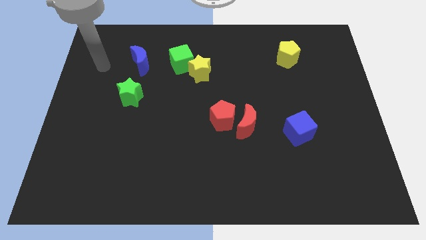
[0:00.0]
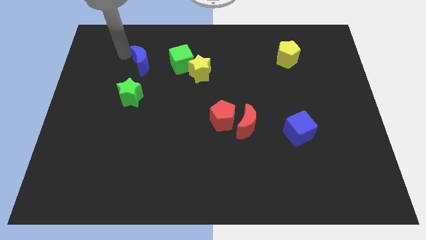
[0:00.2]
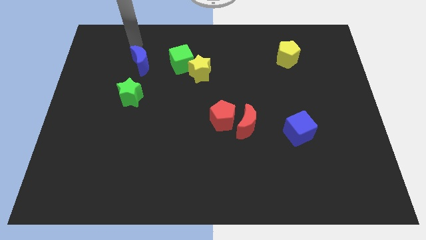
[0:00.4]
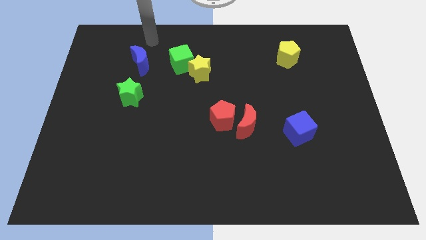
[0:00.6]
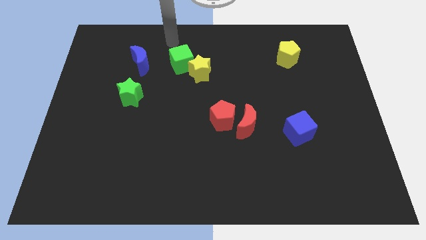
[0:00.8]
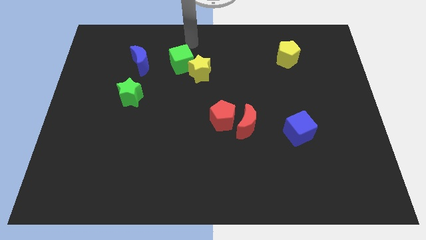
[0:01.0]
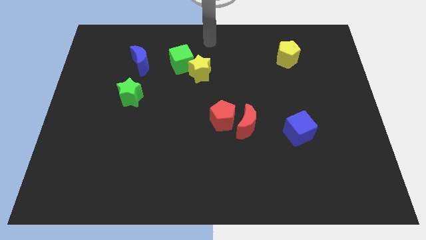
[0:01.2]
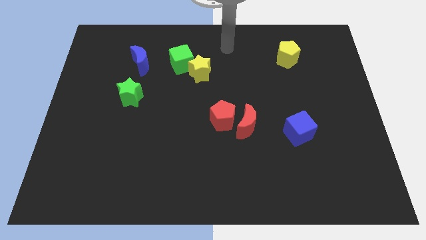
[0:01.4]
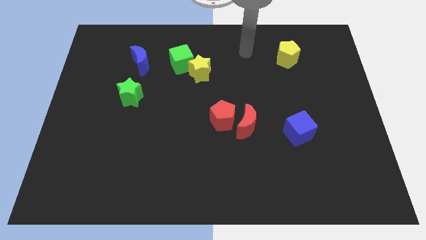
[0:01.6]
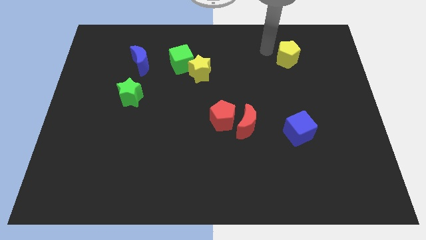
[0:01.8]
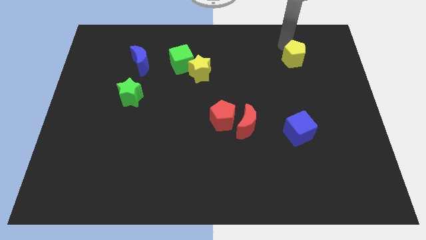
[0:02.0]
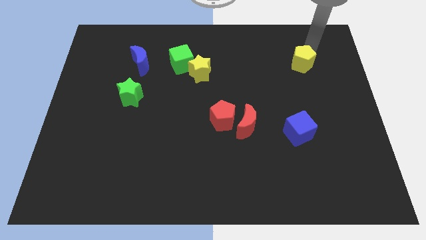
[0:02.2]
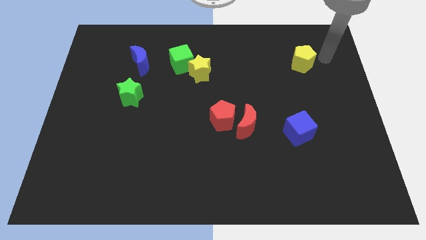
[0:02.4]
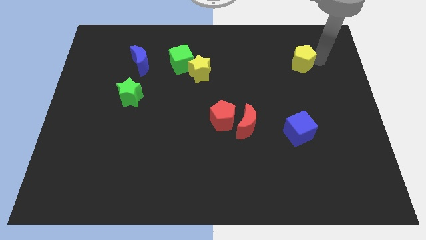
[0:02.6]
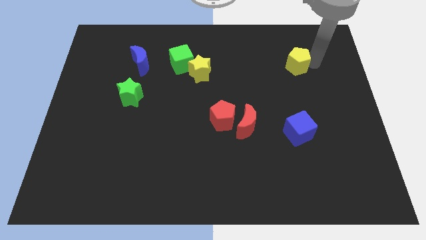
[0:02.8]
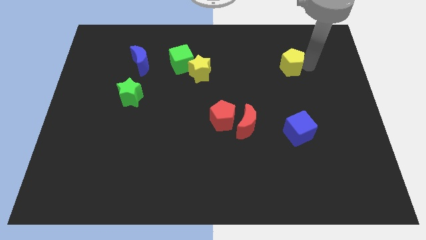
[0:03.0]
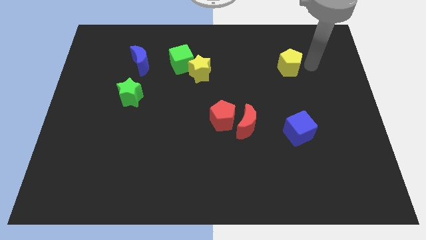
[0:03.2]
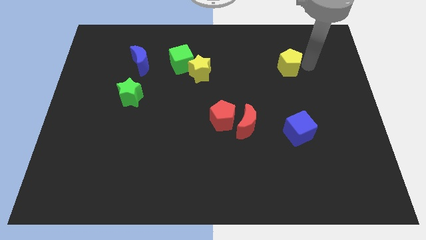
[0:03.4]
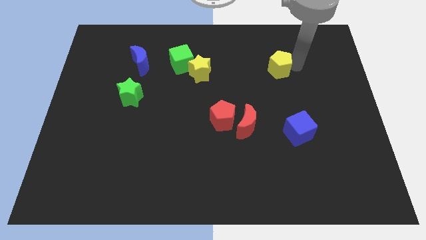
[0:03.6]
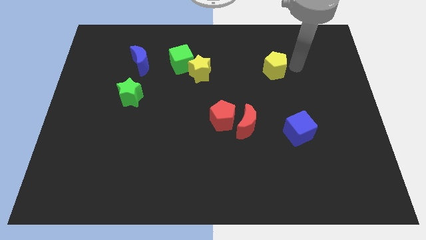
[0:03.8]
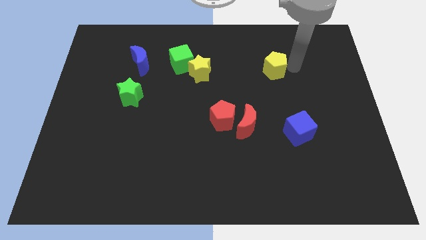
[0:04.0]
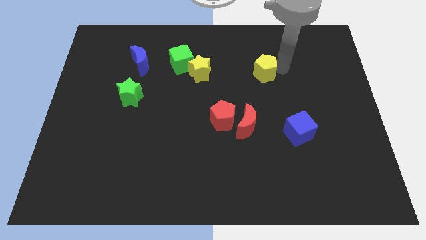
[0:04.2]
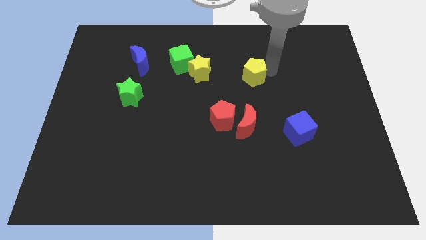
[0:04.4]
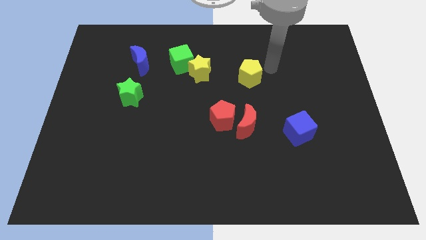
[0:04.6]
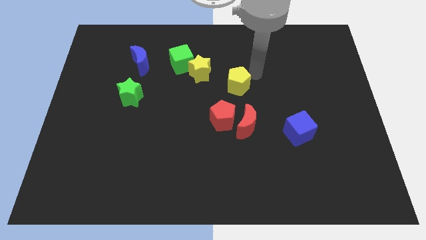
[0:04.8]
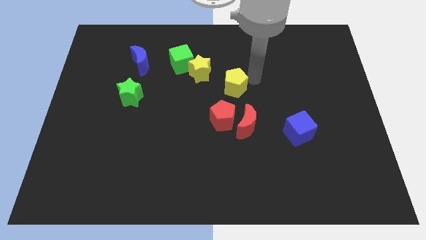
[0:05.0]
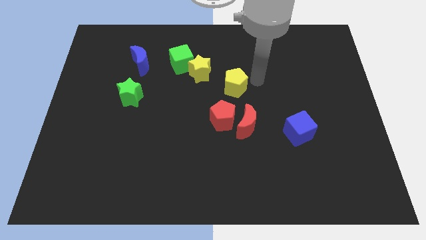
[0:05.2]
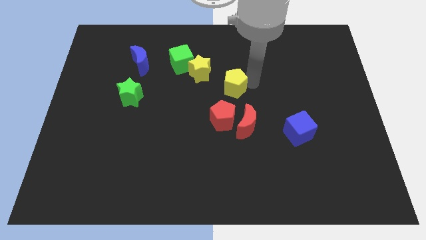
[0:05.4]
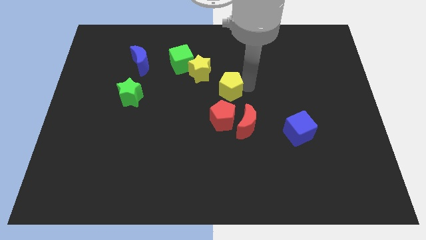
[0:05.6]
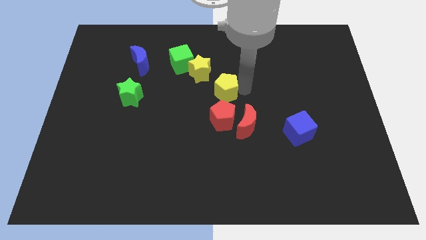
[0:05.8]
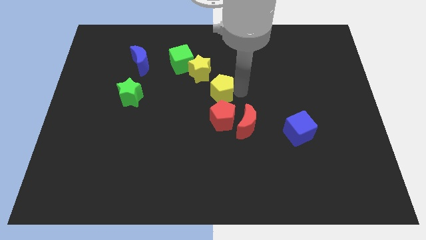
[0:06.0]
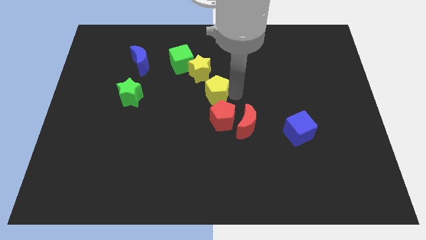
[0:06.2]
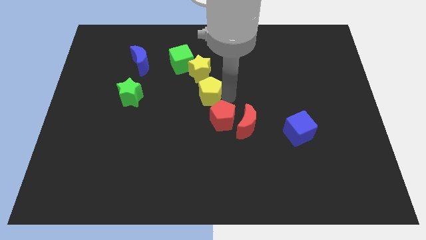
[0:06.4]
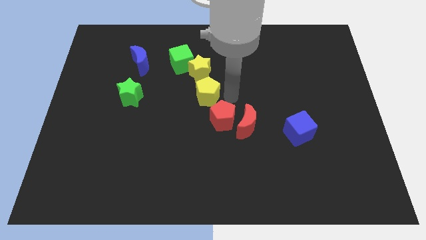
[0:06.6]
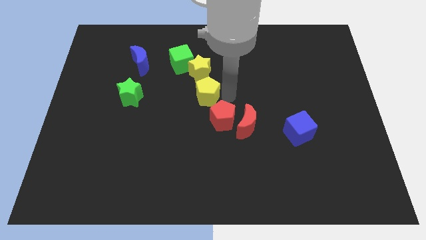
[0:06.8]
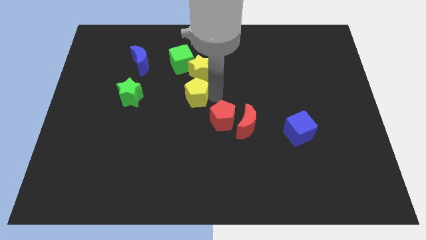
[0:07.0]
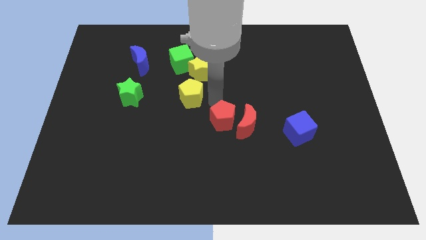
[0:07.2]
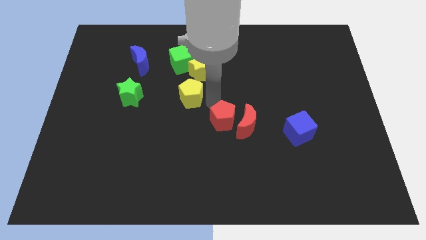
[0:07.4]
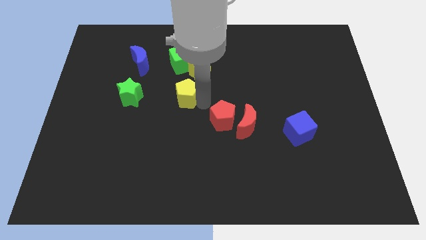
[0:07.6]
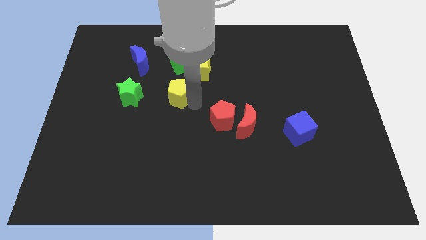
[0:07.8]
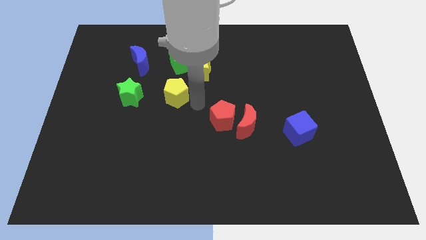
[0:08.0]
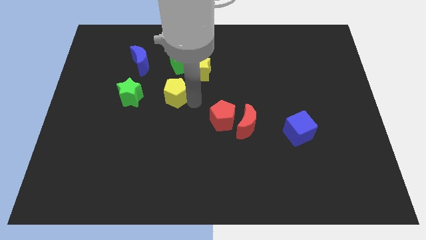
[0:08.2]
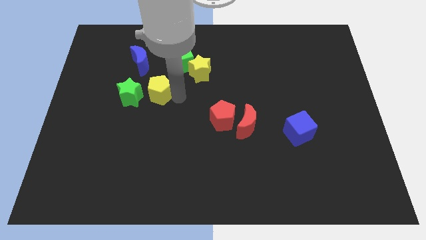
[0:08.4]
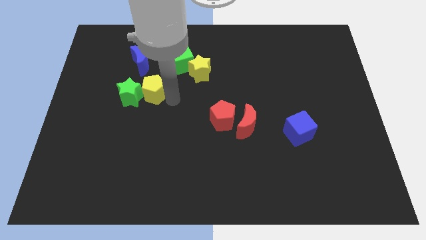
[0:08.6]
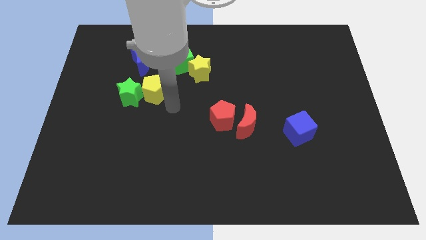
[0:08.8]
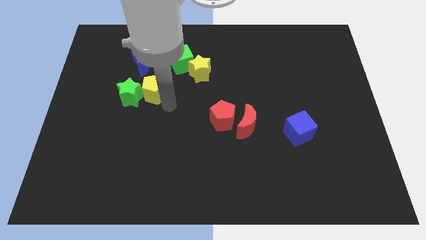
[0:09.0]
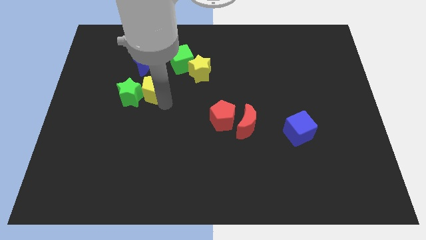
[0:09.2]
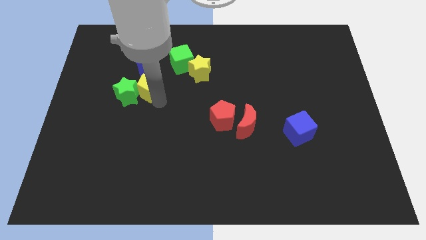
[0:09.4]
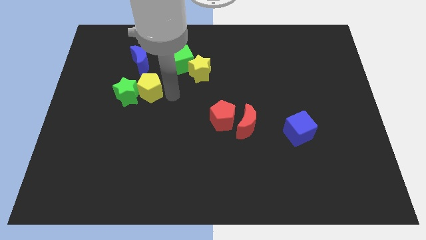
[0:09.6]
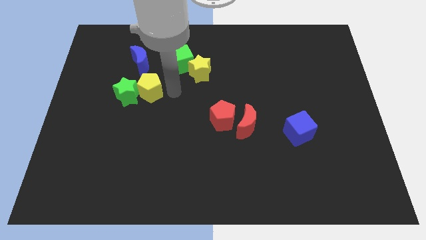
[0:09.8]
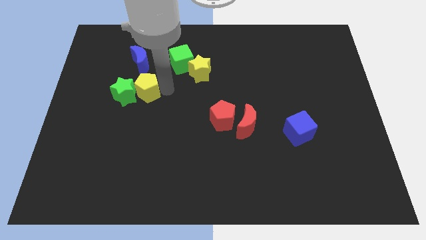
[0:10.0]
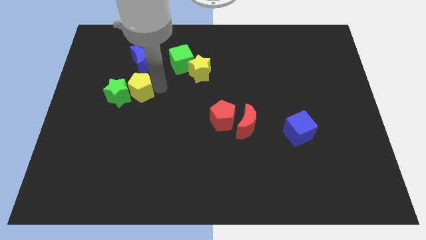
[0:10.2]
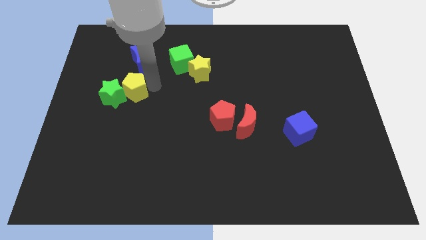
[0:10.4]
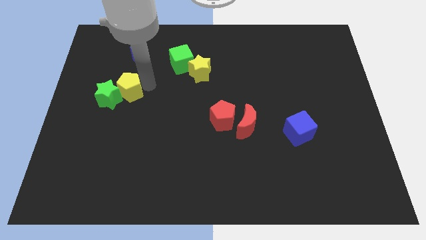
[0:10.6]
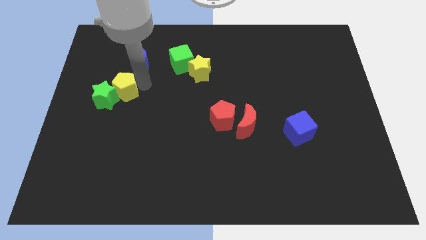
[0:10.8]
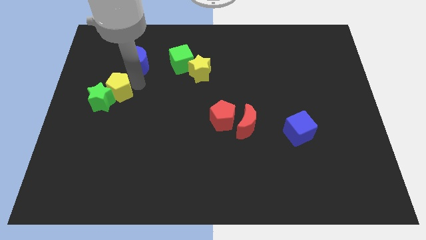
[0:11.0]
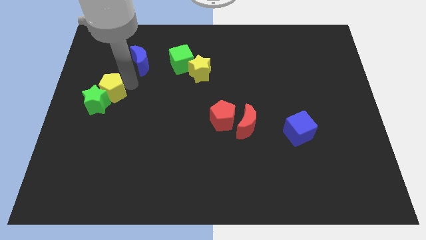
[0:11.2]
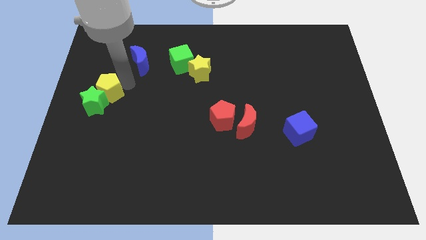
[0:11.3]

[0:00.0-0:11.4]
push the yellow pentagon to the left side
